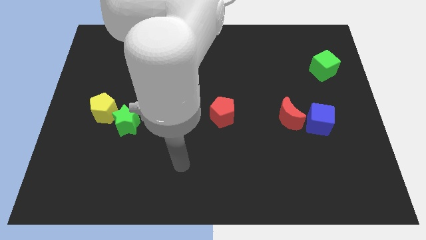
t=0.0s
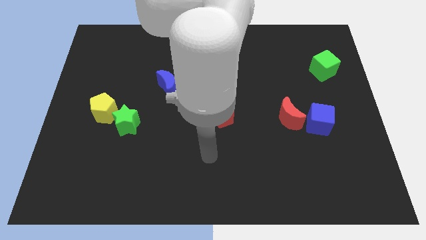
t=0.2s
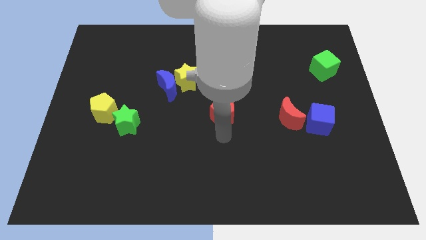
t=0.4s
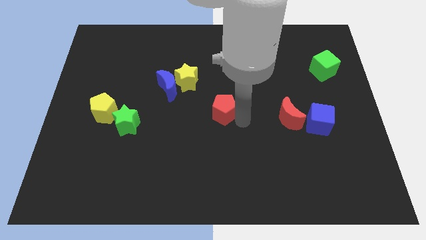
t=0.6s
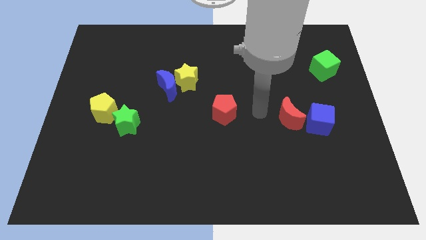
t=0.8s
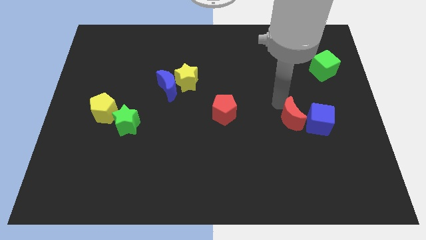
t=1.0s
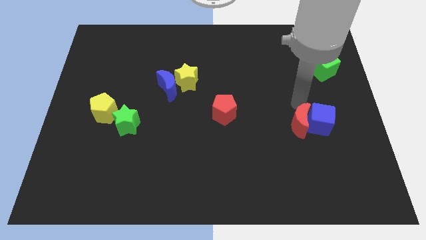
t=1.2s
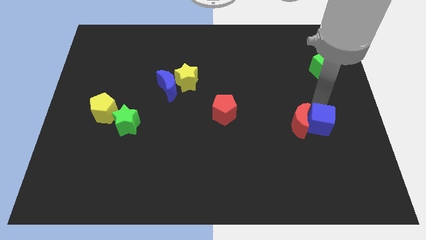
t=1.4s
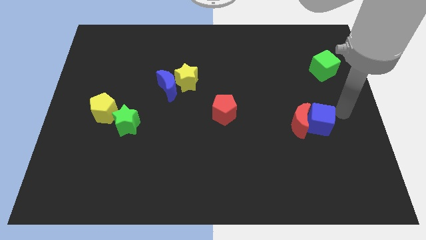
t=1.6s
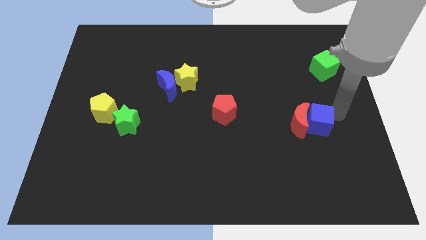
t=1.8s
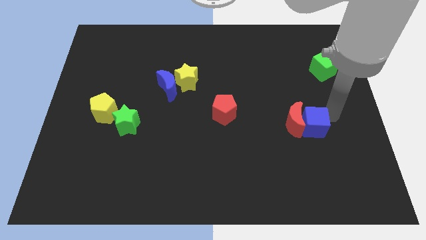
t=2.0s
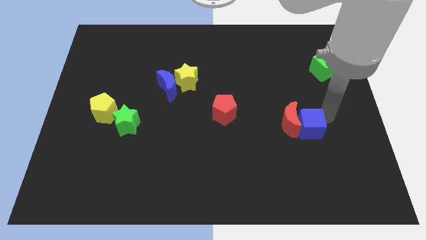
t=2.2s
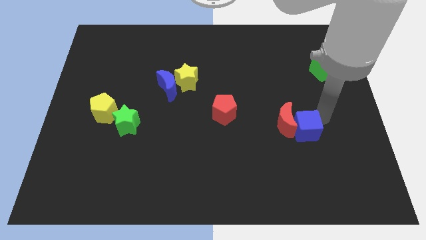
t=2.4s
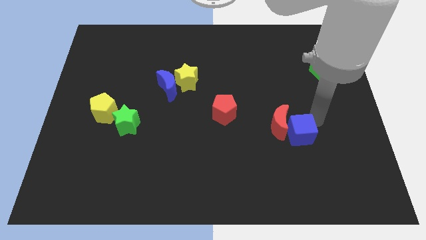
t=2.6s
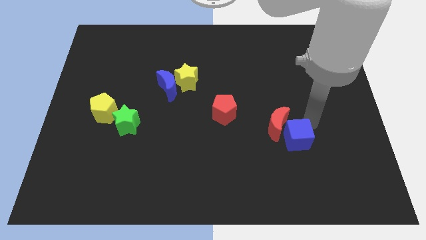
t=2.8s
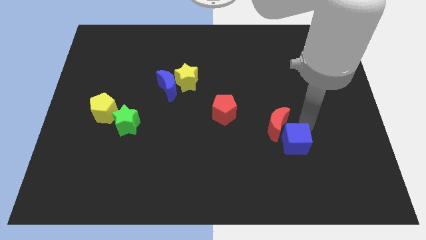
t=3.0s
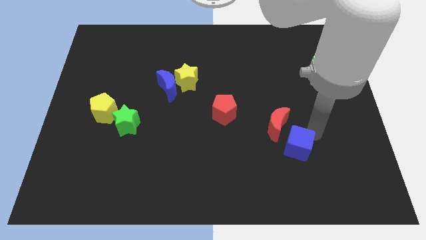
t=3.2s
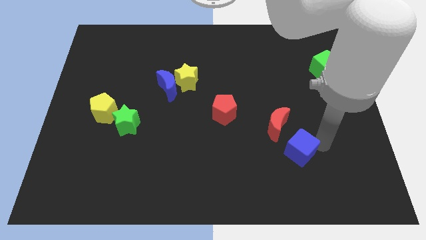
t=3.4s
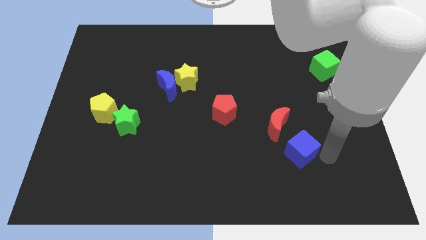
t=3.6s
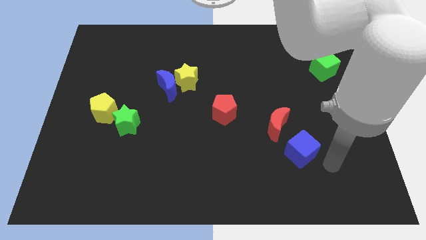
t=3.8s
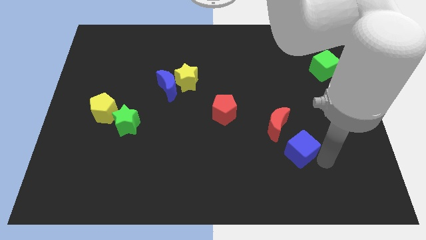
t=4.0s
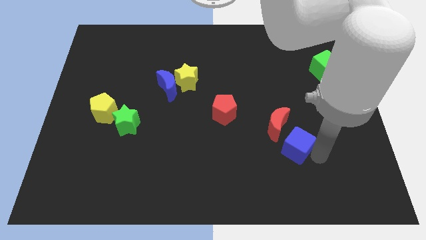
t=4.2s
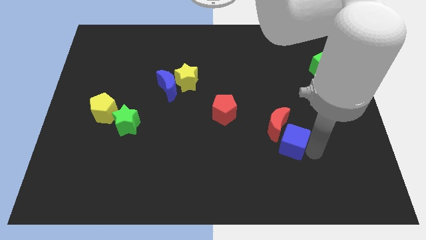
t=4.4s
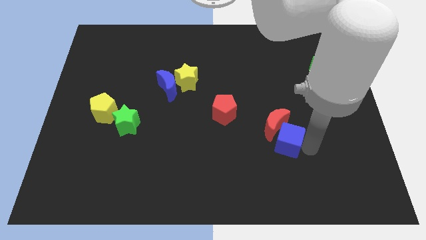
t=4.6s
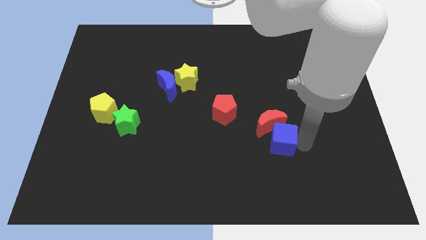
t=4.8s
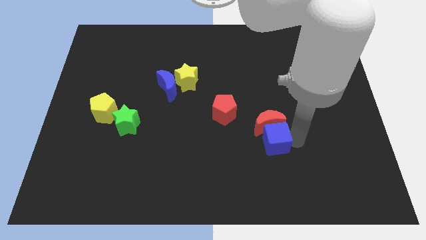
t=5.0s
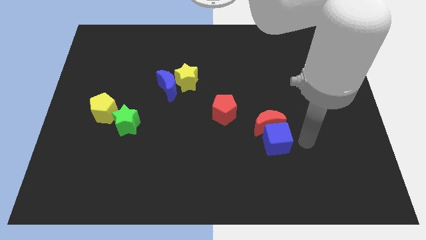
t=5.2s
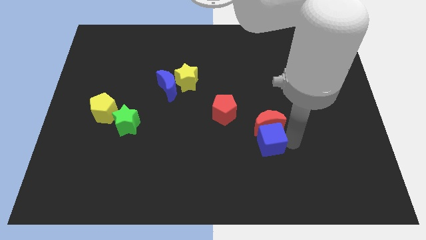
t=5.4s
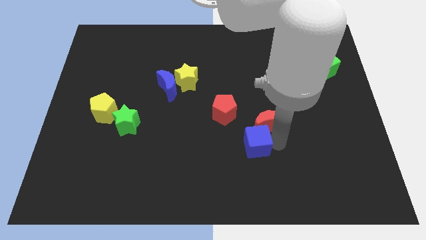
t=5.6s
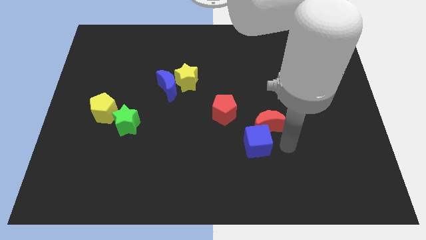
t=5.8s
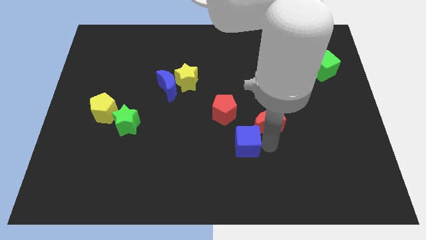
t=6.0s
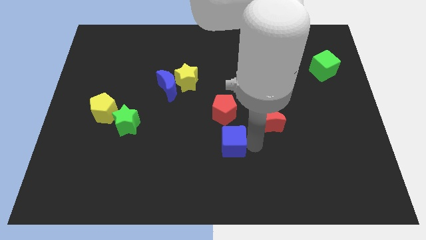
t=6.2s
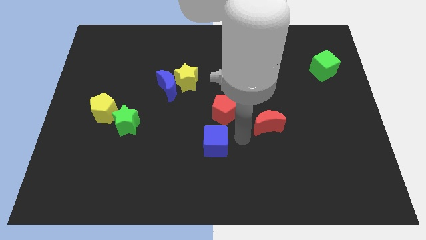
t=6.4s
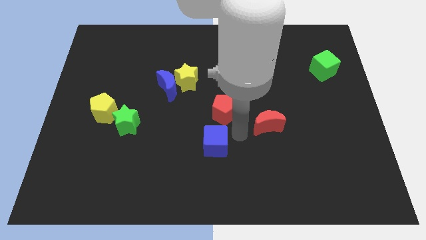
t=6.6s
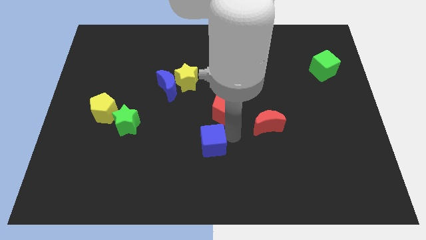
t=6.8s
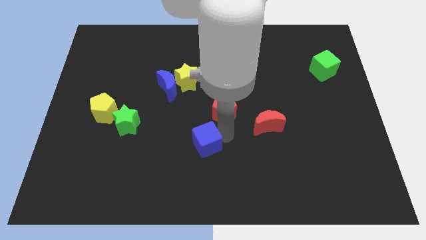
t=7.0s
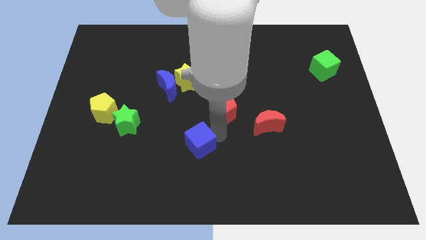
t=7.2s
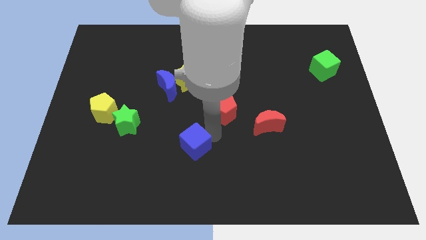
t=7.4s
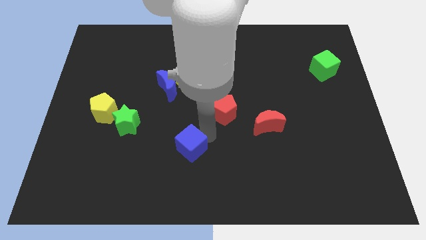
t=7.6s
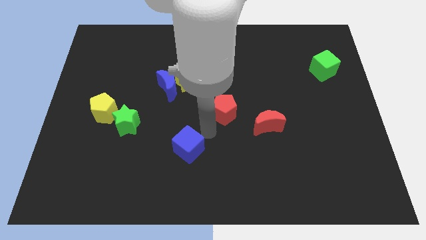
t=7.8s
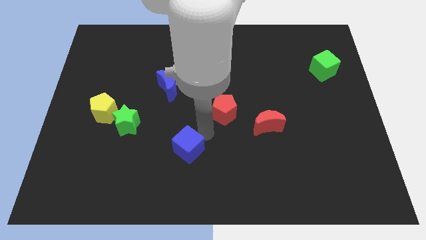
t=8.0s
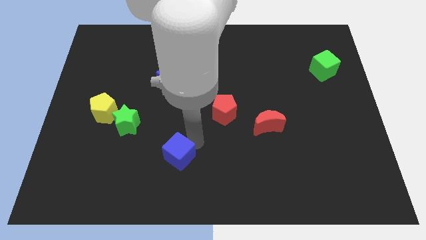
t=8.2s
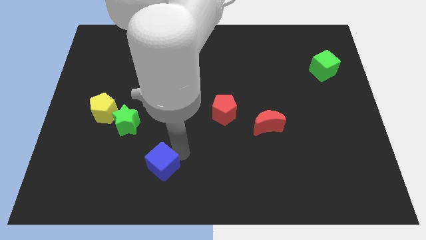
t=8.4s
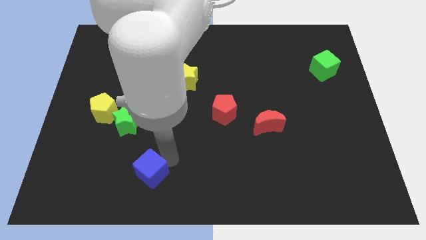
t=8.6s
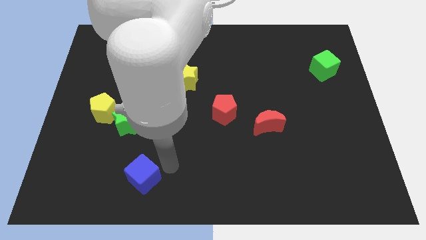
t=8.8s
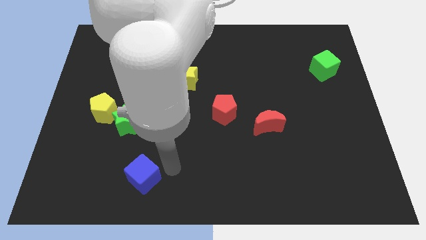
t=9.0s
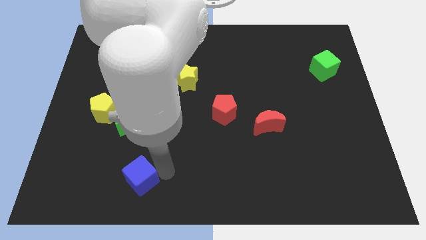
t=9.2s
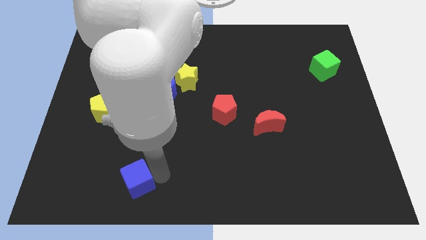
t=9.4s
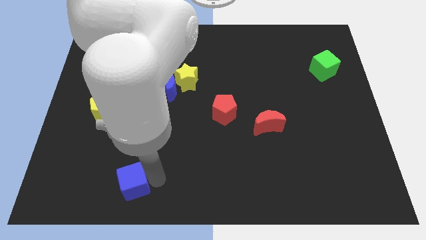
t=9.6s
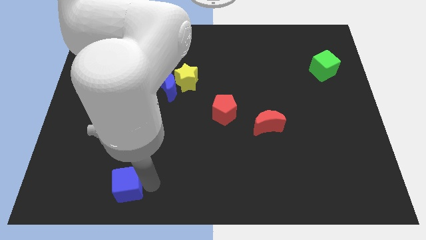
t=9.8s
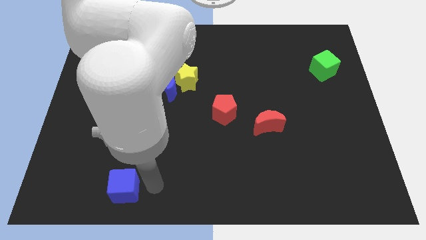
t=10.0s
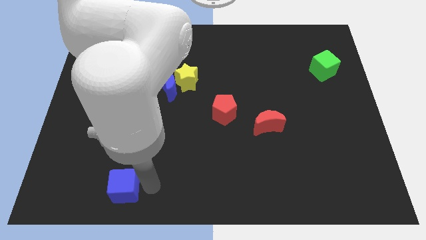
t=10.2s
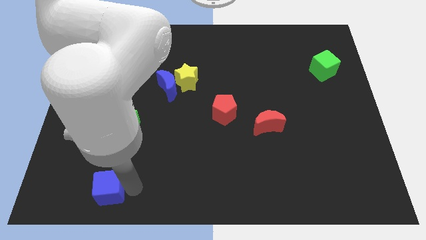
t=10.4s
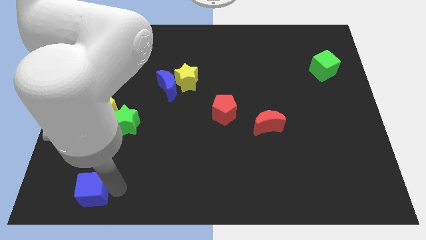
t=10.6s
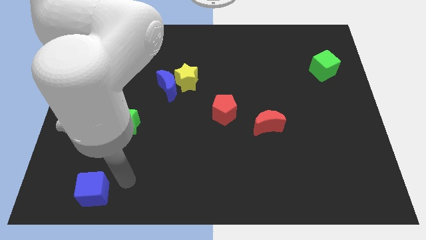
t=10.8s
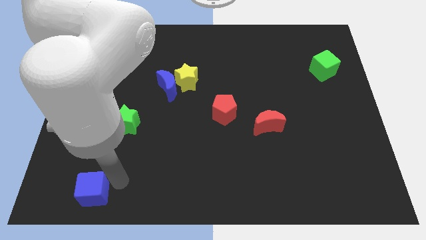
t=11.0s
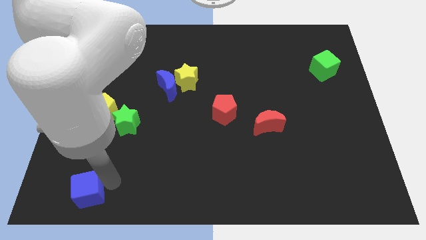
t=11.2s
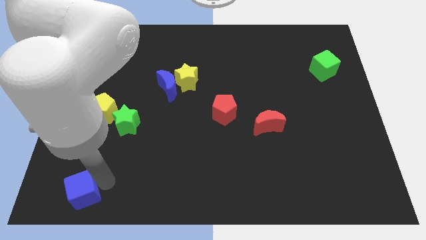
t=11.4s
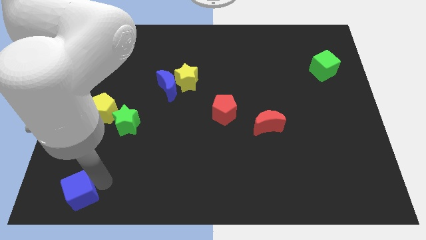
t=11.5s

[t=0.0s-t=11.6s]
push the blue cube to the bottom left of the board

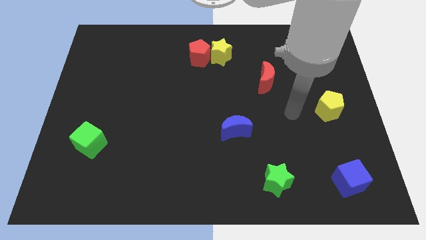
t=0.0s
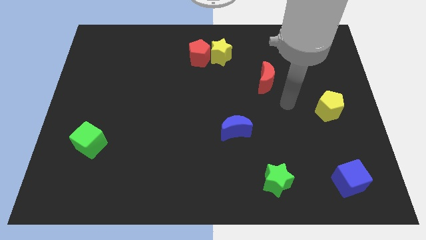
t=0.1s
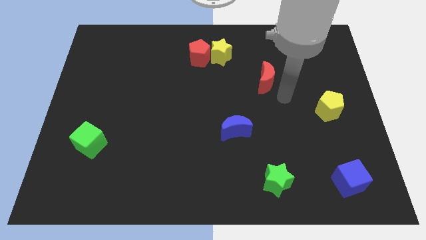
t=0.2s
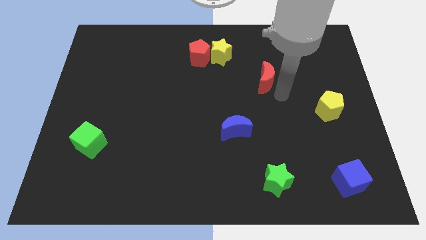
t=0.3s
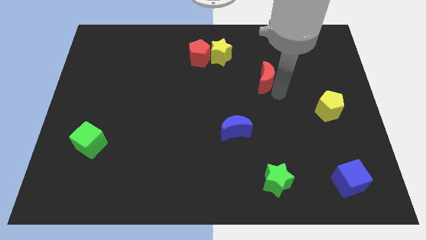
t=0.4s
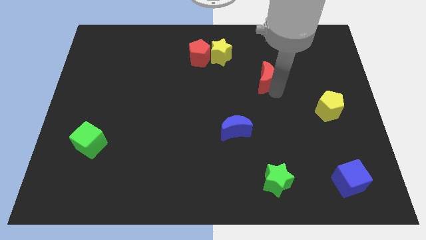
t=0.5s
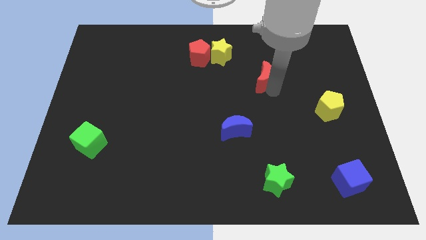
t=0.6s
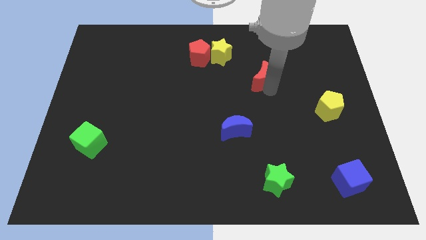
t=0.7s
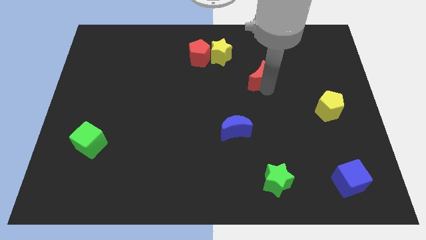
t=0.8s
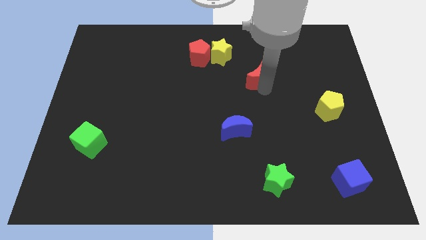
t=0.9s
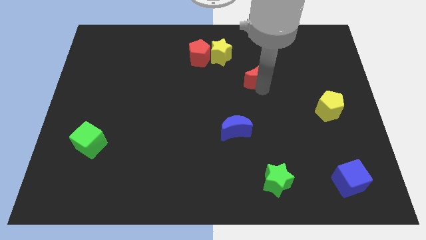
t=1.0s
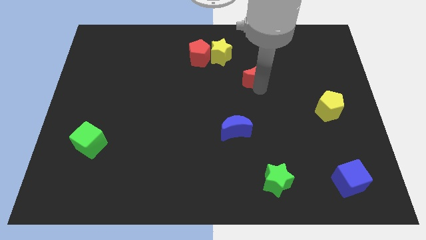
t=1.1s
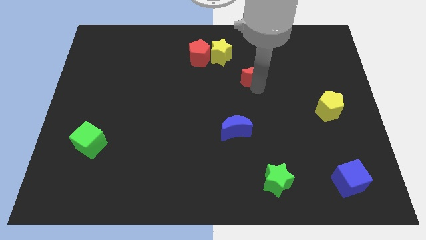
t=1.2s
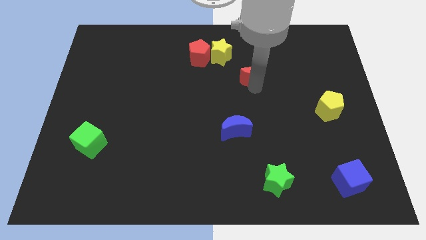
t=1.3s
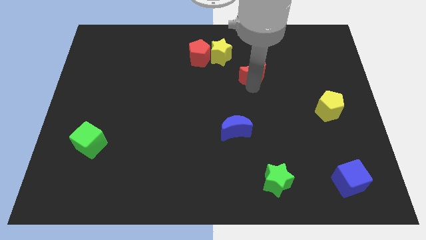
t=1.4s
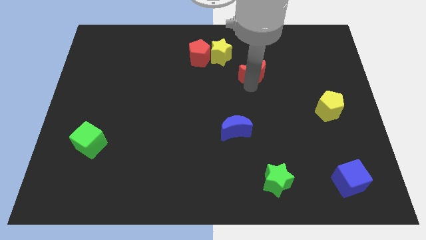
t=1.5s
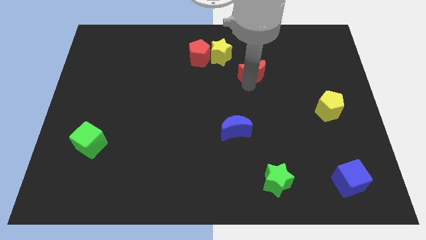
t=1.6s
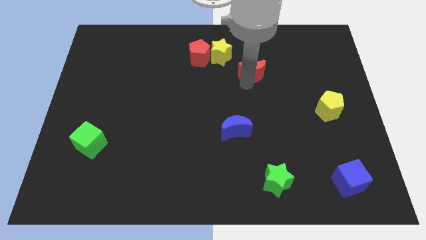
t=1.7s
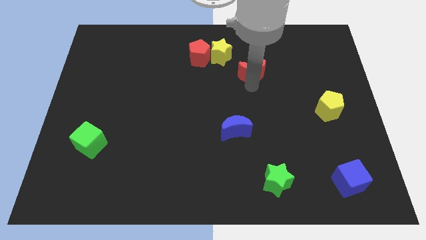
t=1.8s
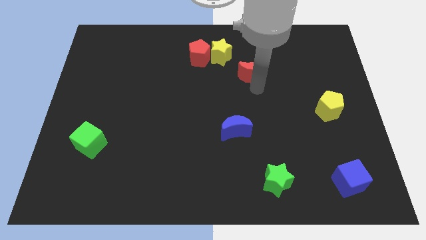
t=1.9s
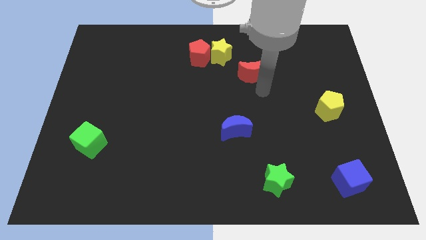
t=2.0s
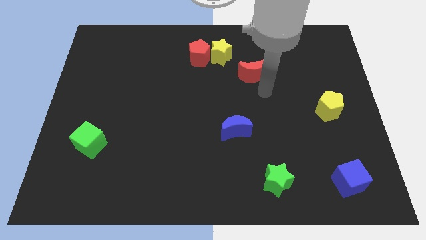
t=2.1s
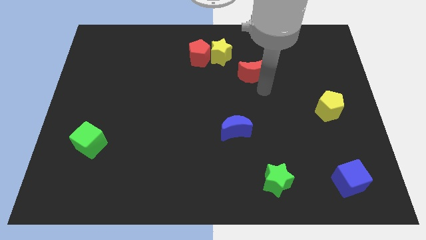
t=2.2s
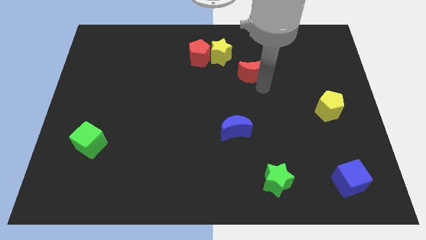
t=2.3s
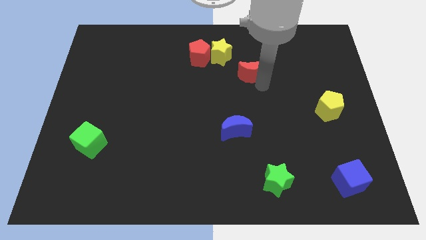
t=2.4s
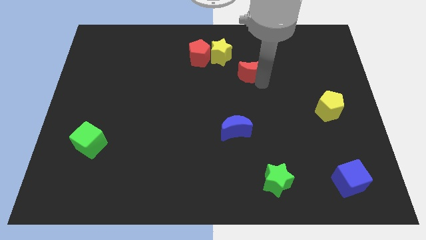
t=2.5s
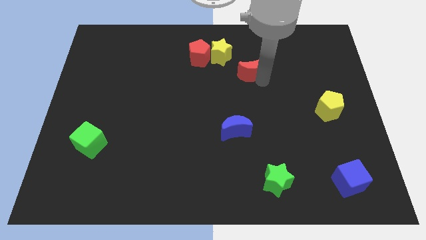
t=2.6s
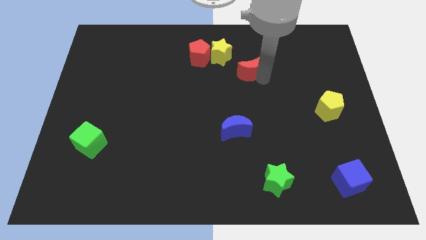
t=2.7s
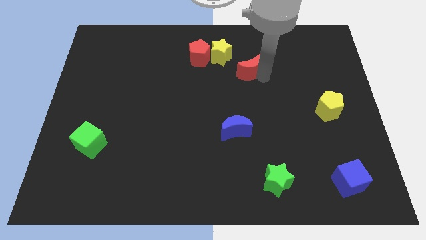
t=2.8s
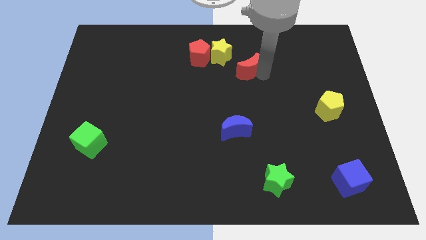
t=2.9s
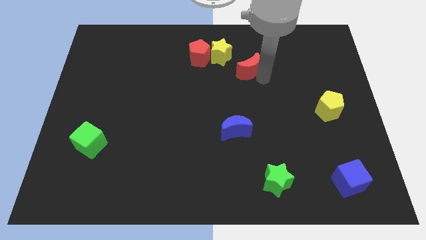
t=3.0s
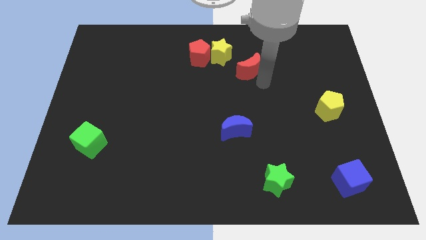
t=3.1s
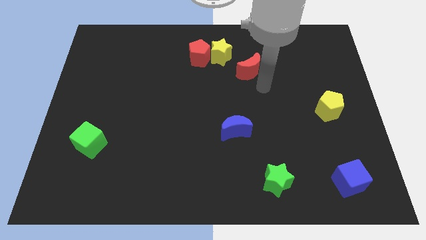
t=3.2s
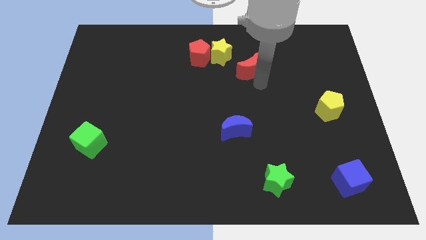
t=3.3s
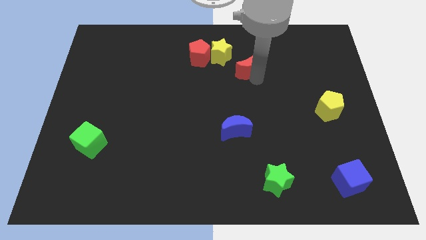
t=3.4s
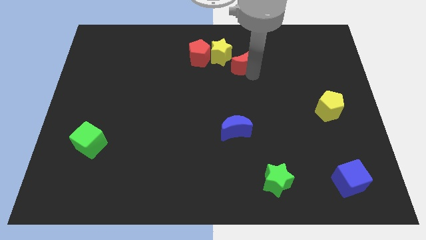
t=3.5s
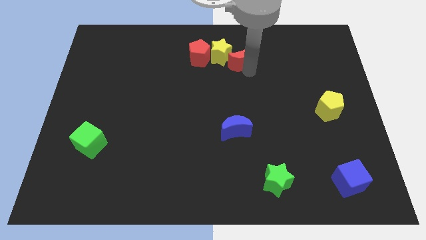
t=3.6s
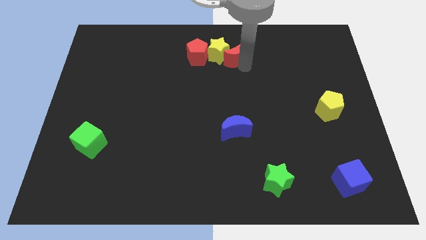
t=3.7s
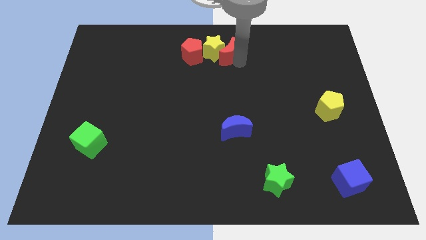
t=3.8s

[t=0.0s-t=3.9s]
slide the red moon to the top
